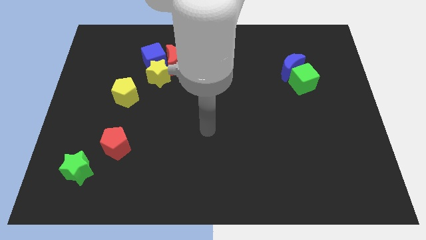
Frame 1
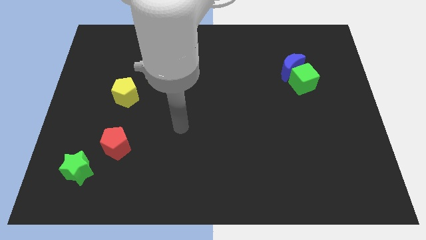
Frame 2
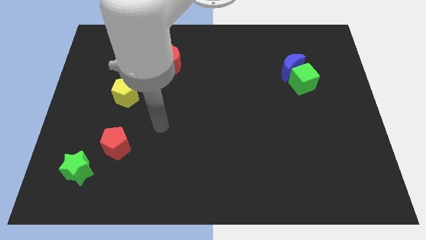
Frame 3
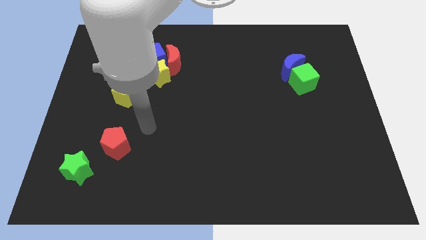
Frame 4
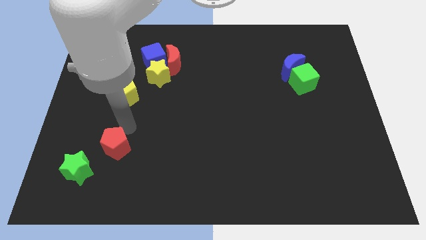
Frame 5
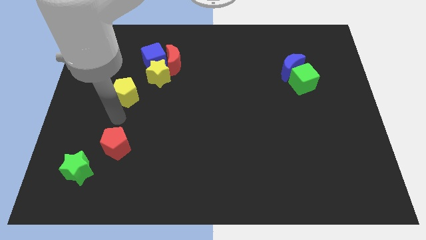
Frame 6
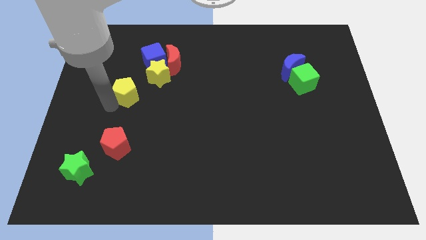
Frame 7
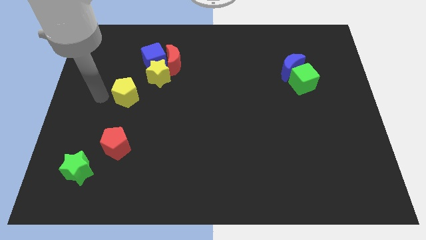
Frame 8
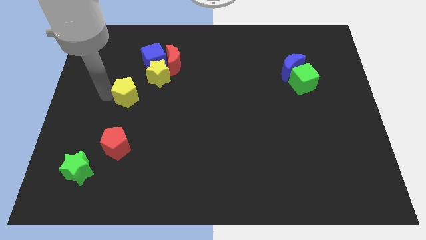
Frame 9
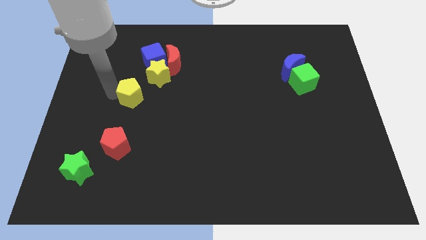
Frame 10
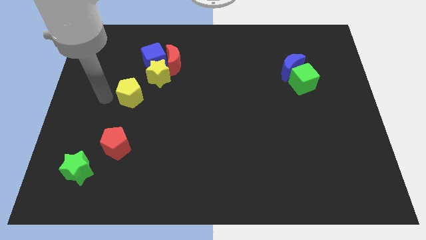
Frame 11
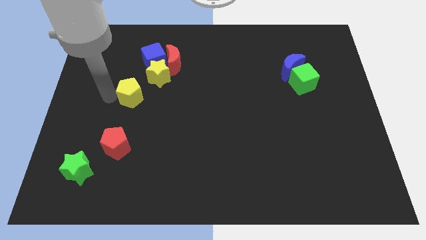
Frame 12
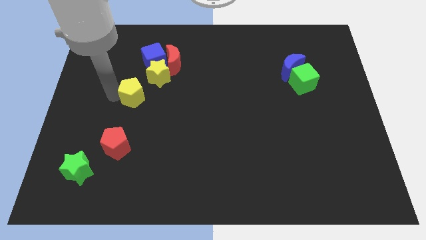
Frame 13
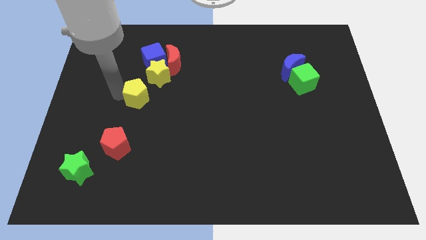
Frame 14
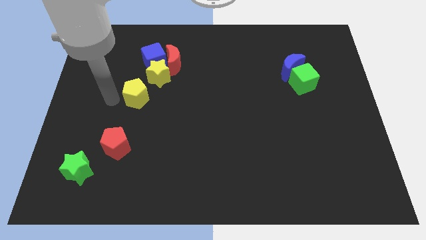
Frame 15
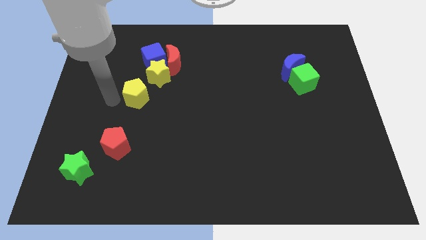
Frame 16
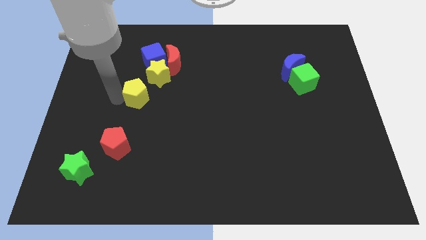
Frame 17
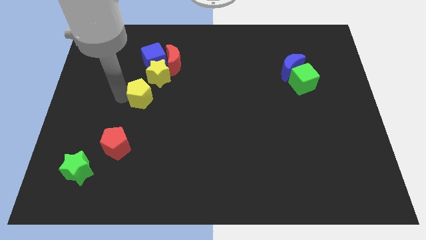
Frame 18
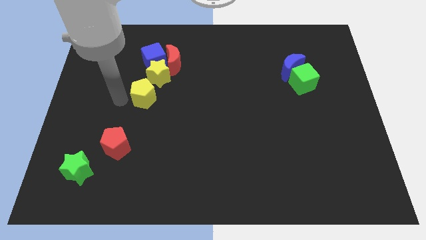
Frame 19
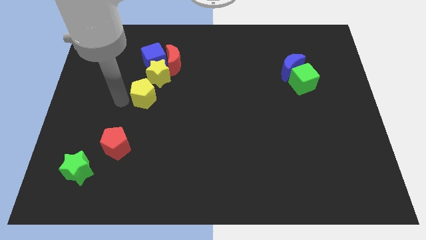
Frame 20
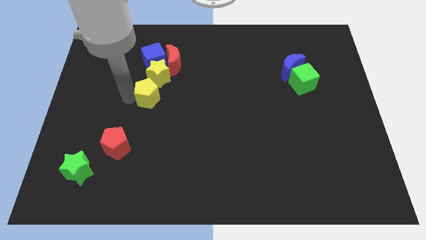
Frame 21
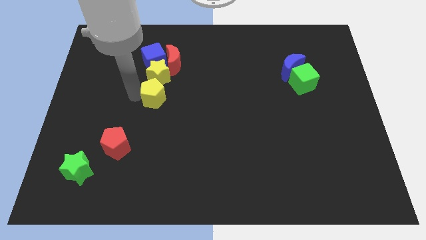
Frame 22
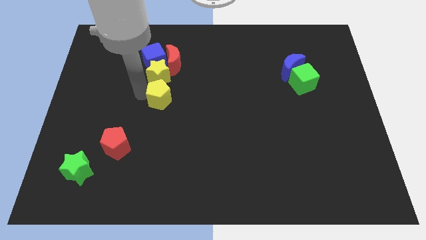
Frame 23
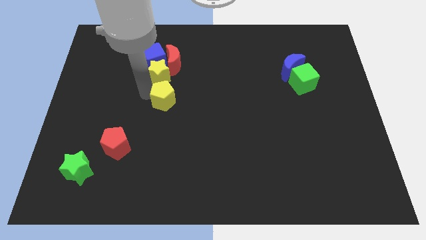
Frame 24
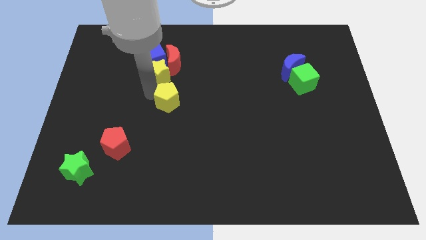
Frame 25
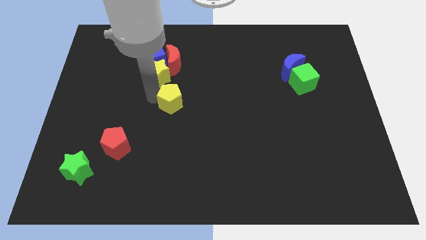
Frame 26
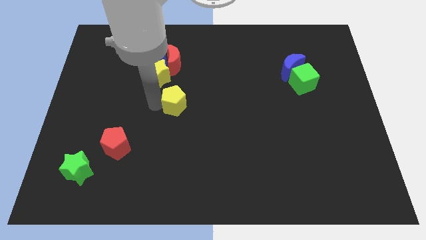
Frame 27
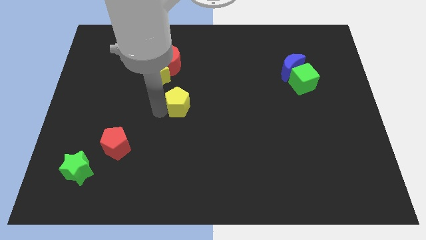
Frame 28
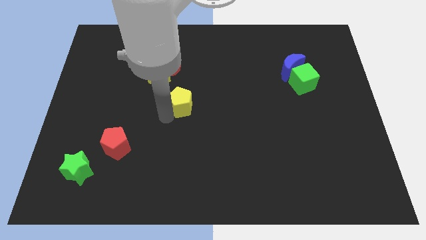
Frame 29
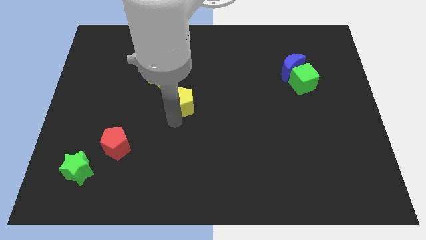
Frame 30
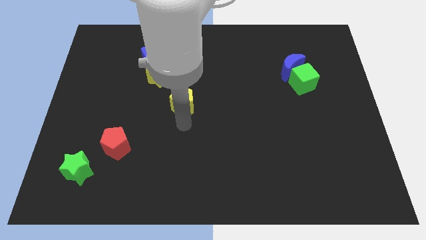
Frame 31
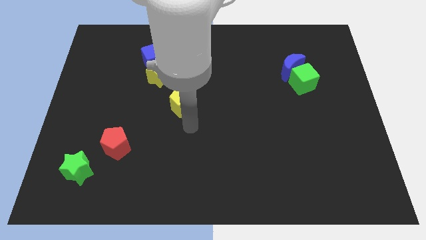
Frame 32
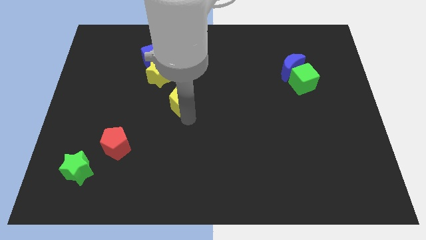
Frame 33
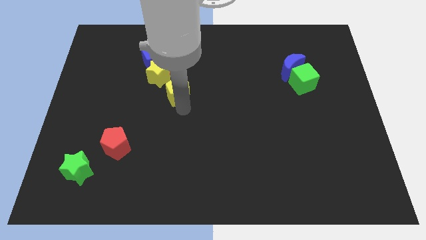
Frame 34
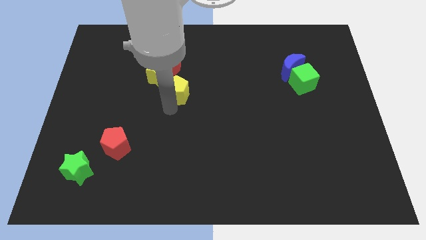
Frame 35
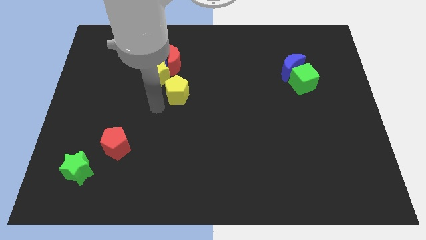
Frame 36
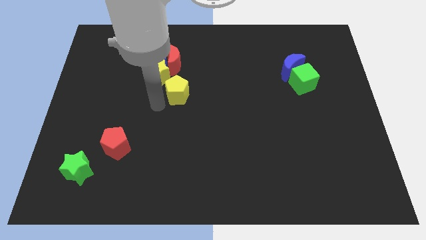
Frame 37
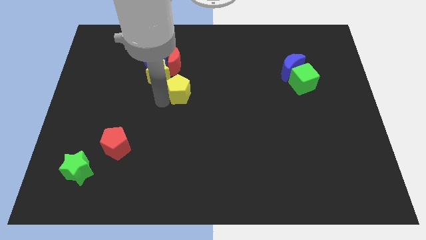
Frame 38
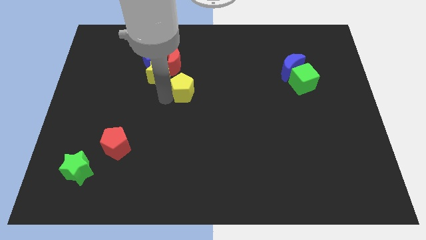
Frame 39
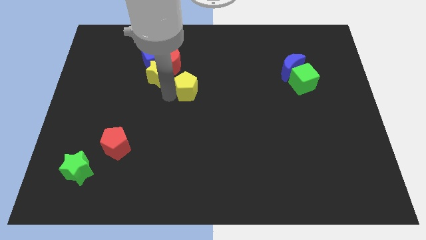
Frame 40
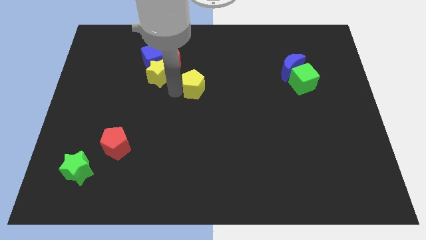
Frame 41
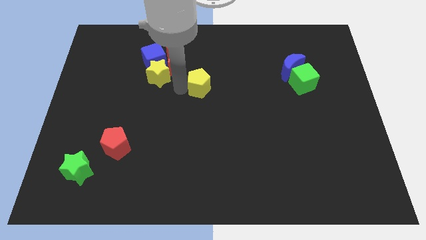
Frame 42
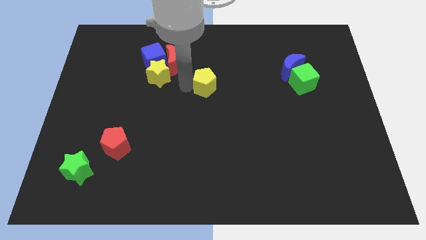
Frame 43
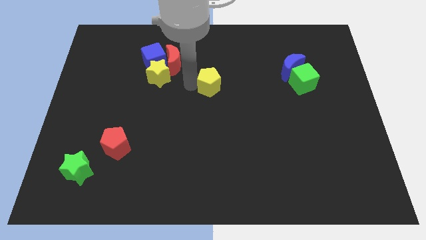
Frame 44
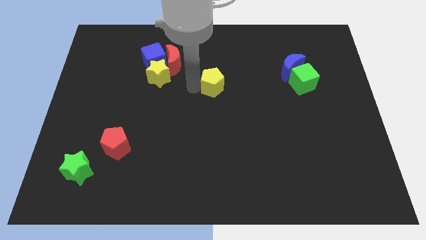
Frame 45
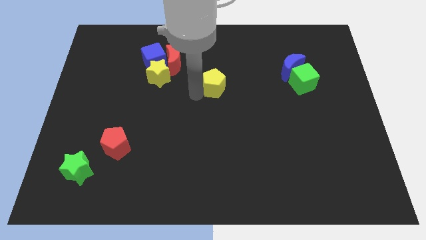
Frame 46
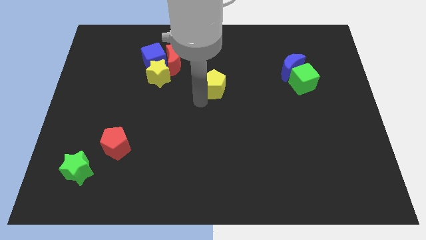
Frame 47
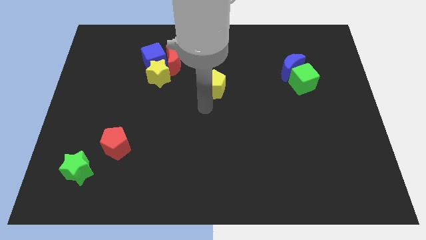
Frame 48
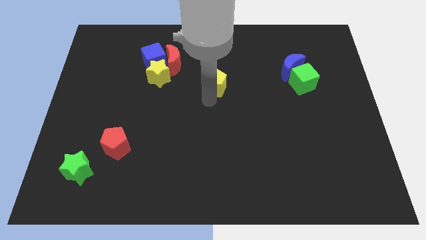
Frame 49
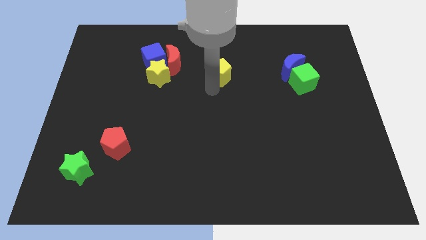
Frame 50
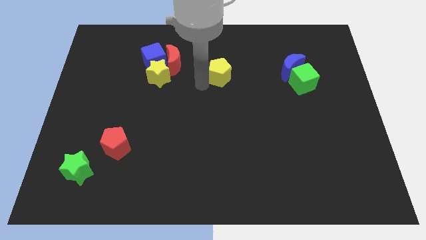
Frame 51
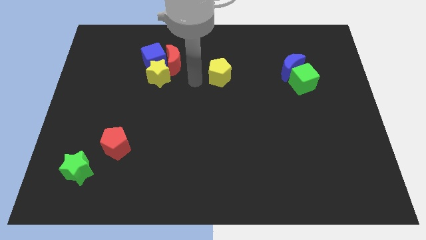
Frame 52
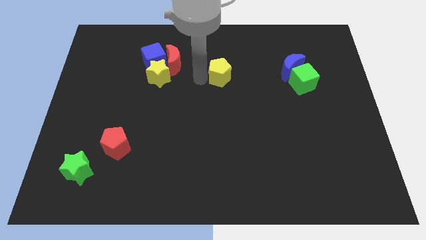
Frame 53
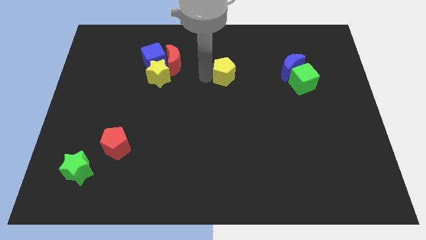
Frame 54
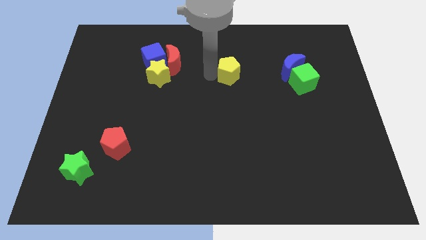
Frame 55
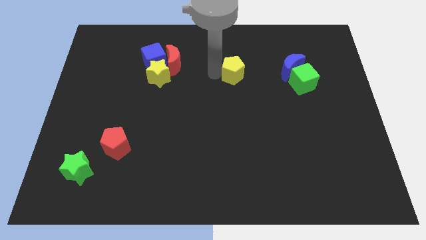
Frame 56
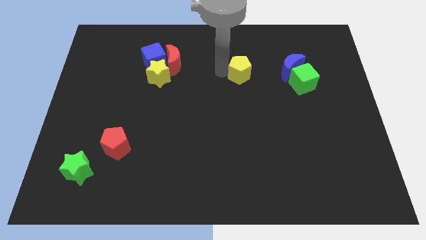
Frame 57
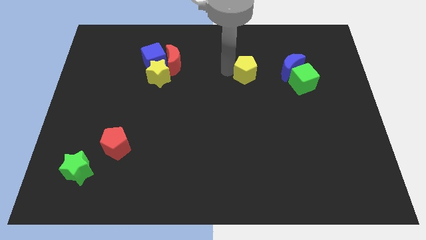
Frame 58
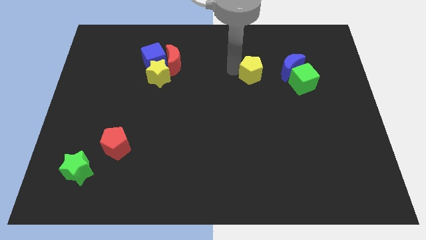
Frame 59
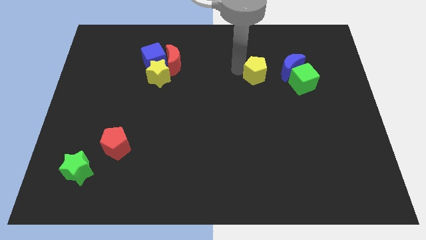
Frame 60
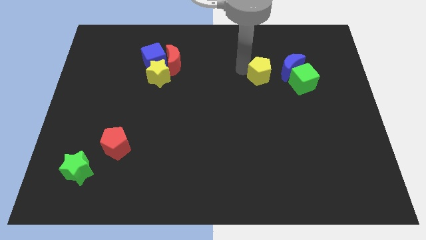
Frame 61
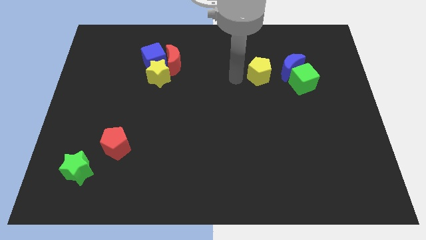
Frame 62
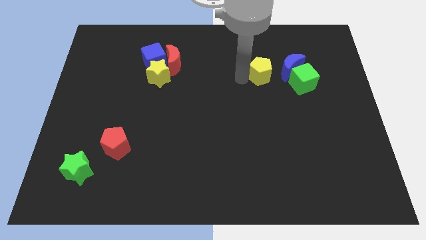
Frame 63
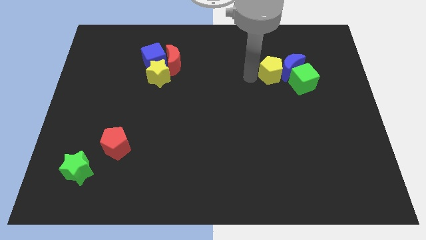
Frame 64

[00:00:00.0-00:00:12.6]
slide the yellow pentagon towards the blue moon
